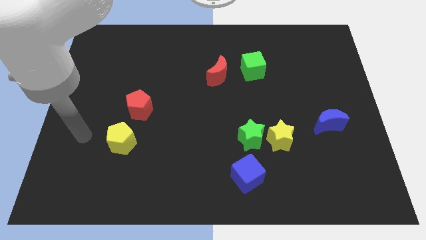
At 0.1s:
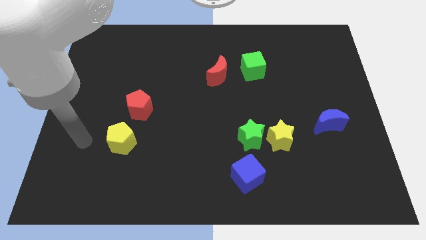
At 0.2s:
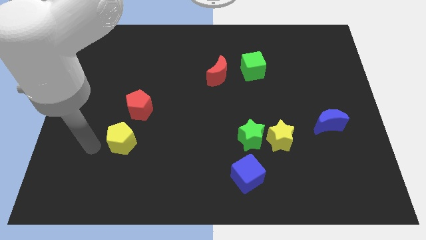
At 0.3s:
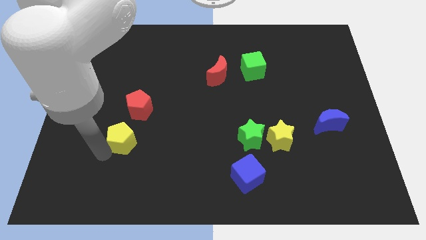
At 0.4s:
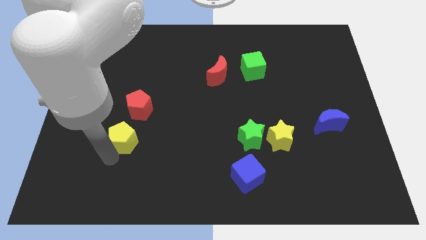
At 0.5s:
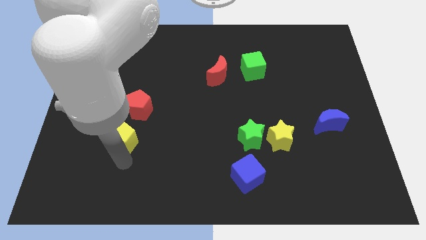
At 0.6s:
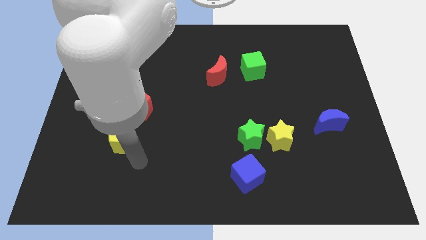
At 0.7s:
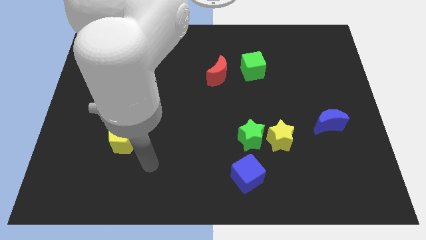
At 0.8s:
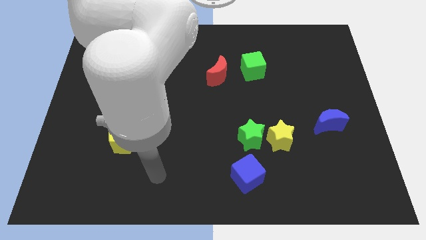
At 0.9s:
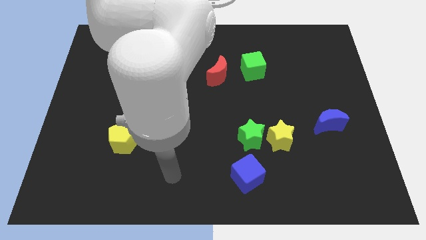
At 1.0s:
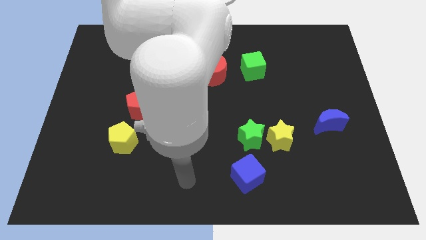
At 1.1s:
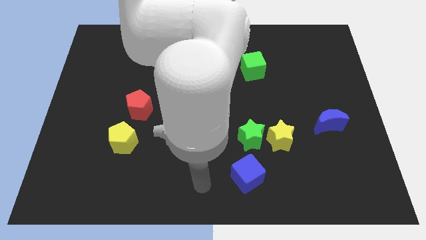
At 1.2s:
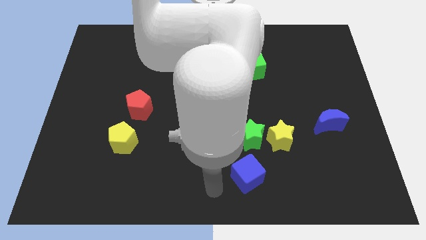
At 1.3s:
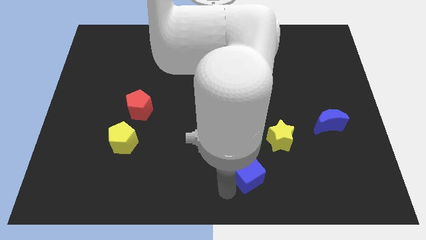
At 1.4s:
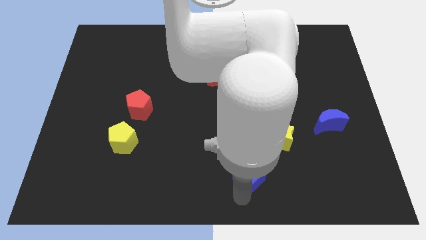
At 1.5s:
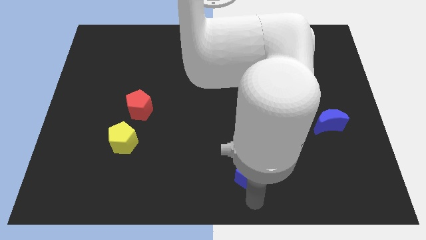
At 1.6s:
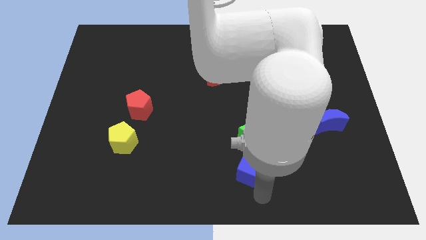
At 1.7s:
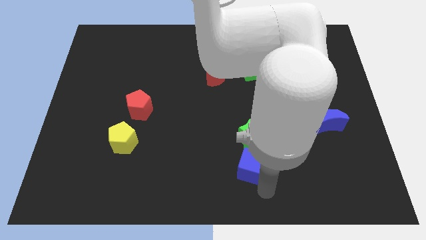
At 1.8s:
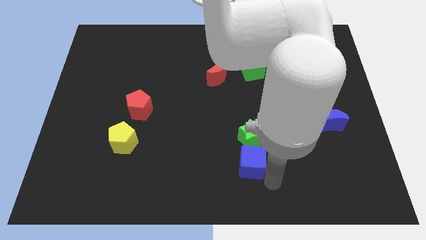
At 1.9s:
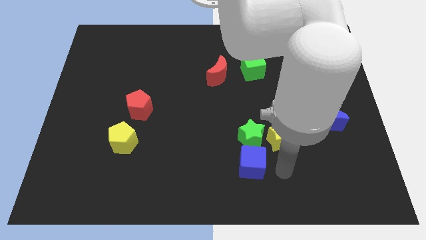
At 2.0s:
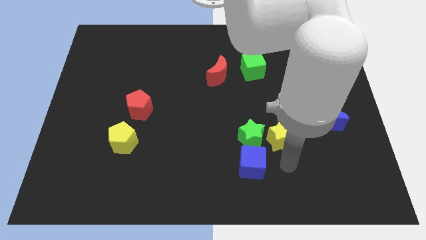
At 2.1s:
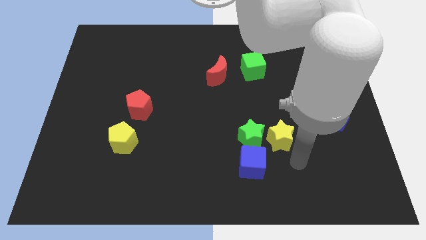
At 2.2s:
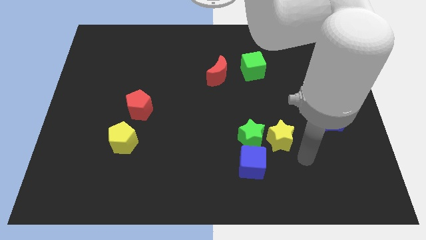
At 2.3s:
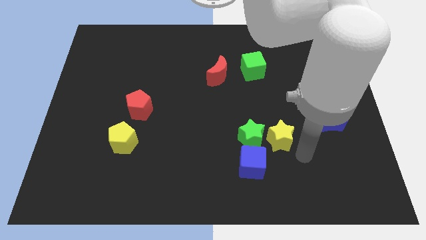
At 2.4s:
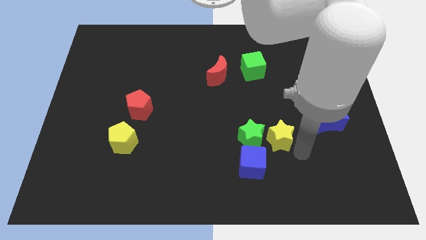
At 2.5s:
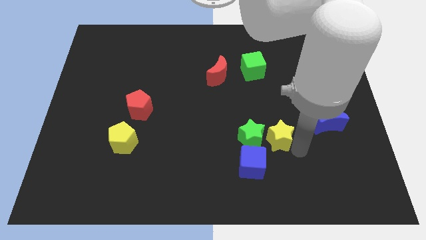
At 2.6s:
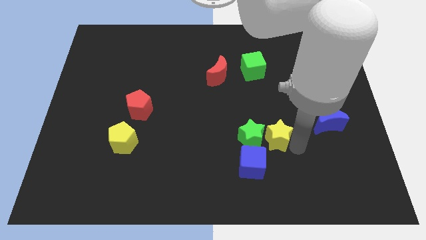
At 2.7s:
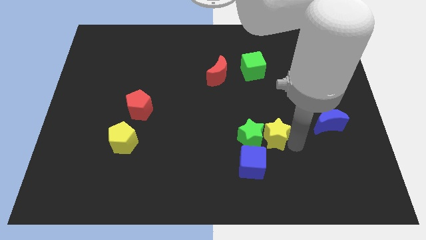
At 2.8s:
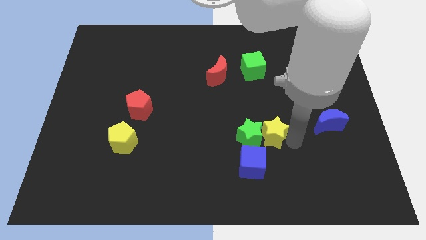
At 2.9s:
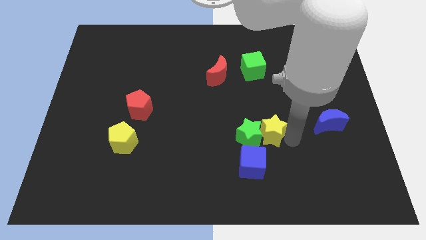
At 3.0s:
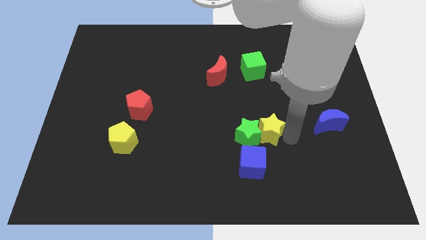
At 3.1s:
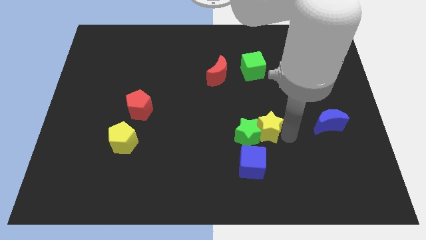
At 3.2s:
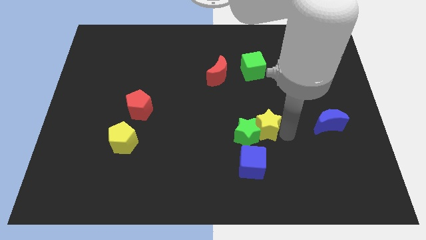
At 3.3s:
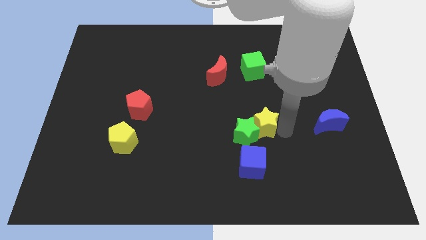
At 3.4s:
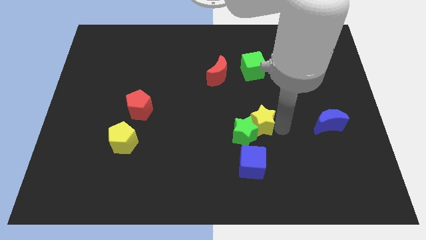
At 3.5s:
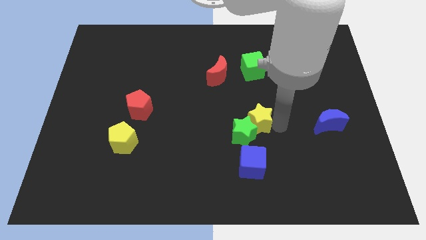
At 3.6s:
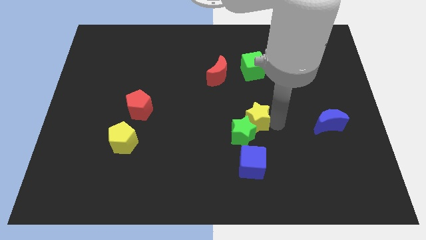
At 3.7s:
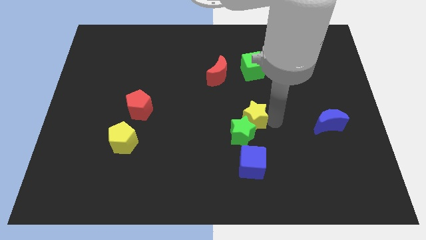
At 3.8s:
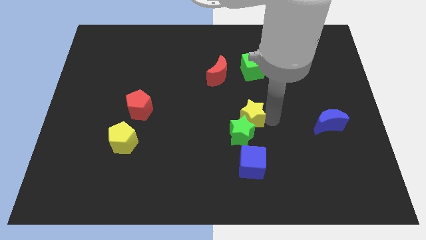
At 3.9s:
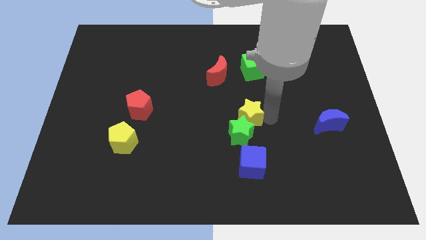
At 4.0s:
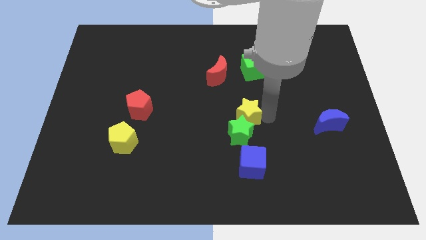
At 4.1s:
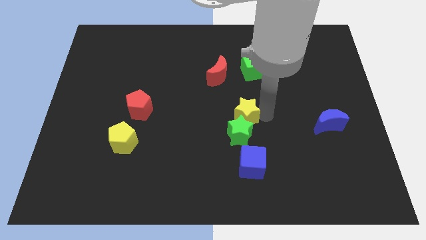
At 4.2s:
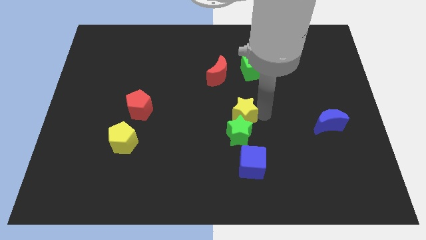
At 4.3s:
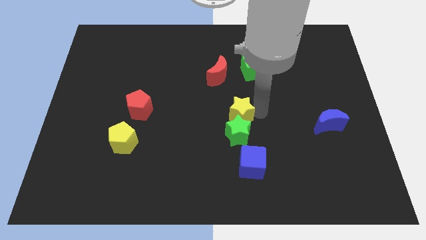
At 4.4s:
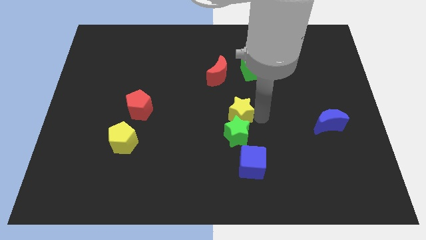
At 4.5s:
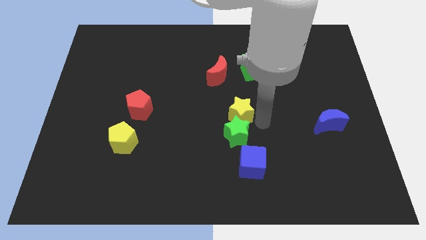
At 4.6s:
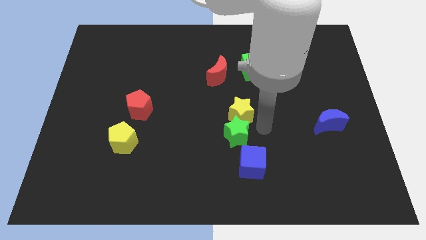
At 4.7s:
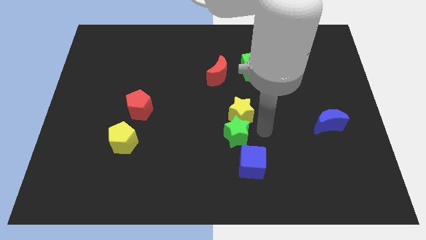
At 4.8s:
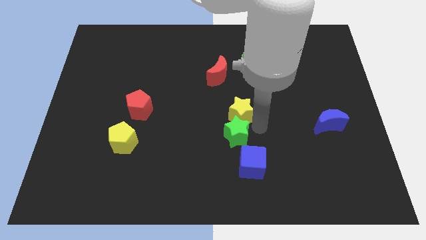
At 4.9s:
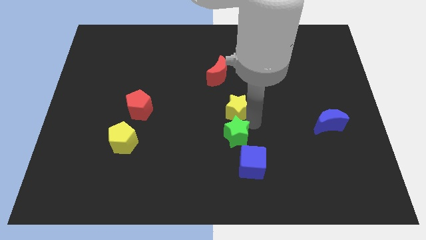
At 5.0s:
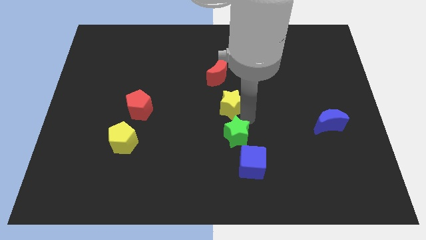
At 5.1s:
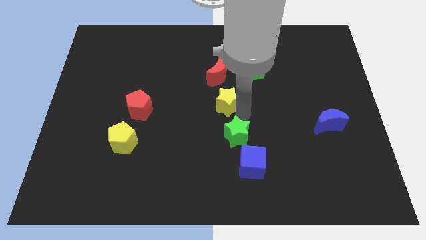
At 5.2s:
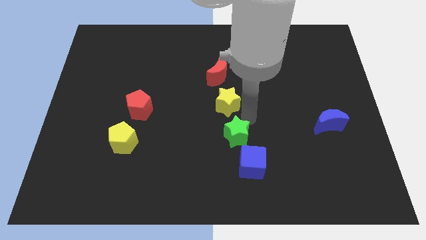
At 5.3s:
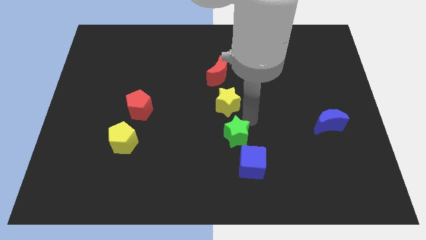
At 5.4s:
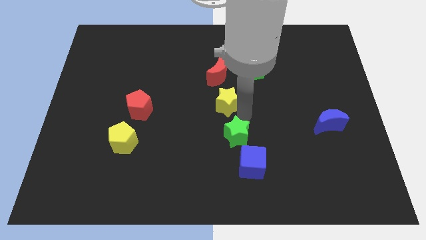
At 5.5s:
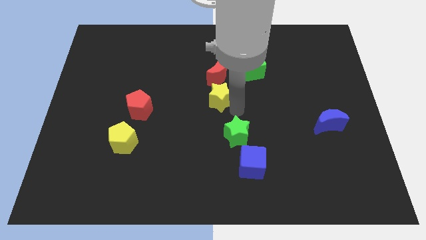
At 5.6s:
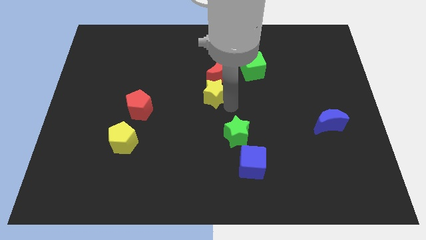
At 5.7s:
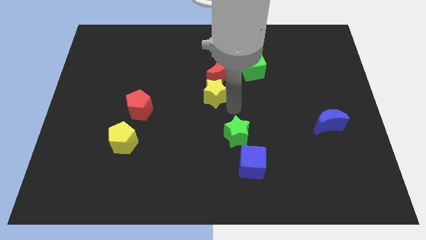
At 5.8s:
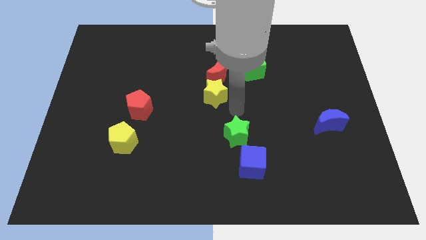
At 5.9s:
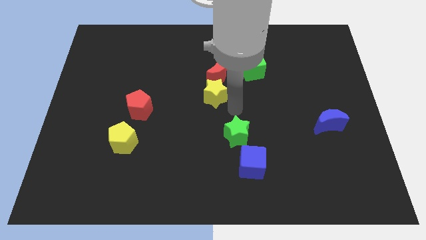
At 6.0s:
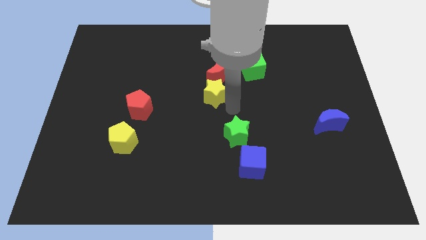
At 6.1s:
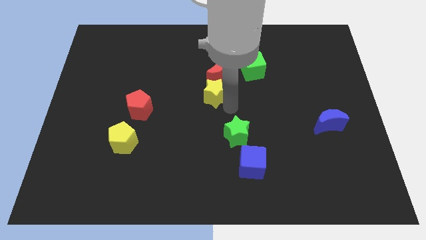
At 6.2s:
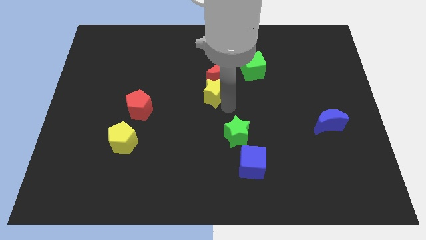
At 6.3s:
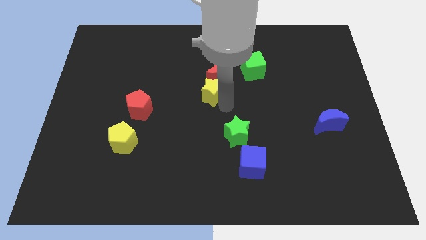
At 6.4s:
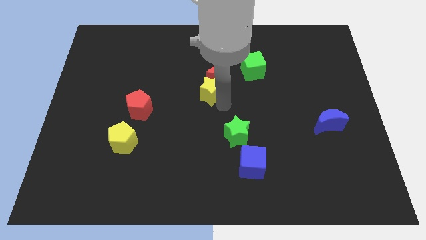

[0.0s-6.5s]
slide the yellow star upwards and to the left diagonally

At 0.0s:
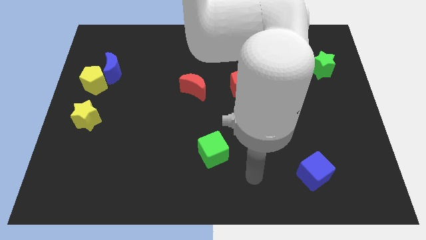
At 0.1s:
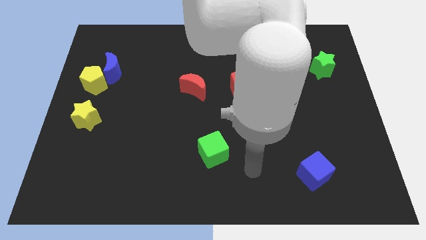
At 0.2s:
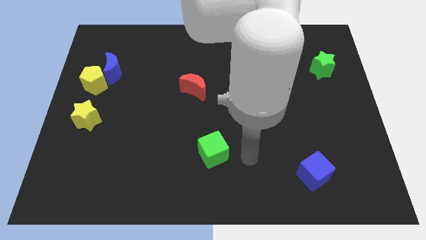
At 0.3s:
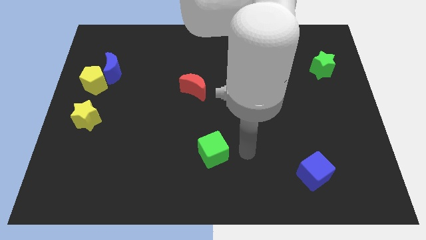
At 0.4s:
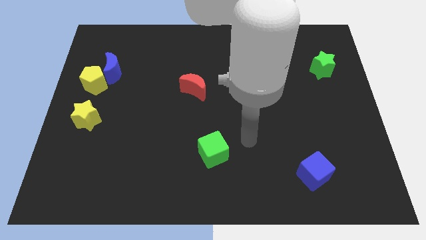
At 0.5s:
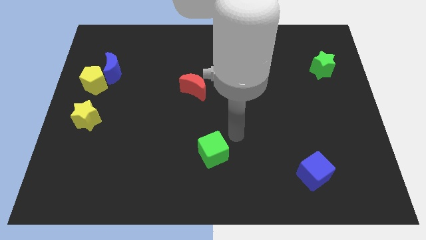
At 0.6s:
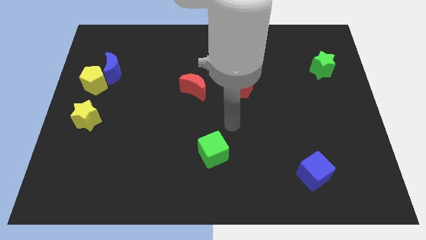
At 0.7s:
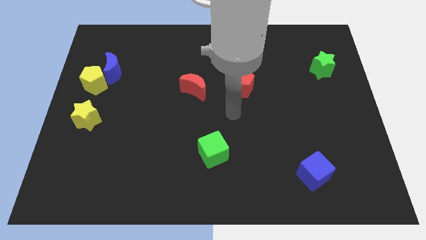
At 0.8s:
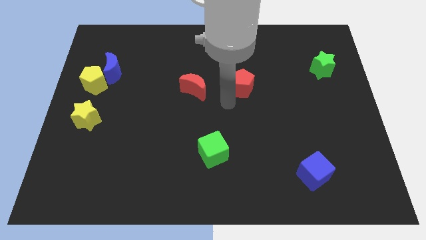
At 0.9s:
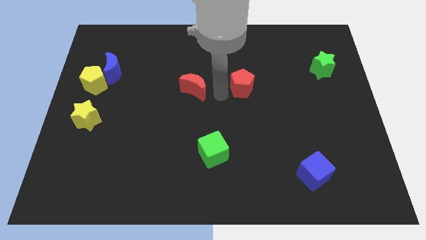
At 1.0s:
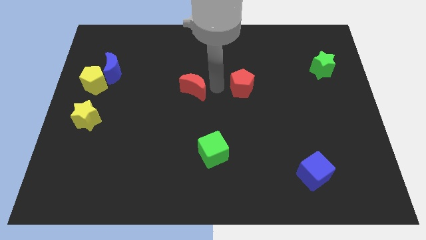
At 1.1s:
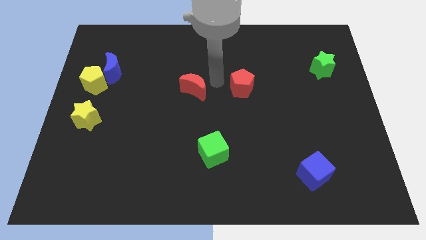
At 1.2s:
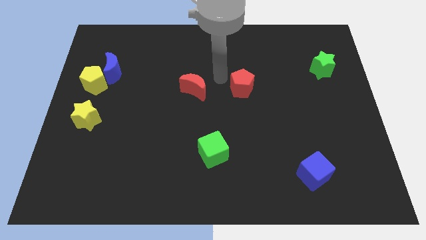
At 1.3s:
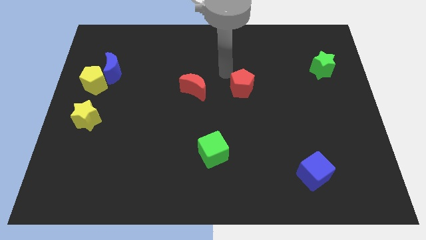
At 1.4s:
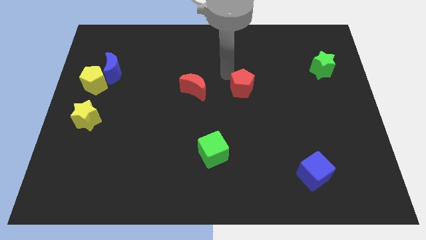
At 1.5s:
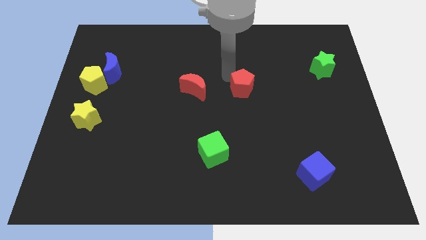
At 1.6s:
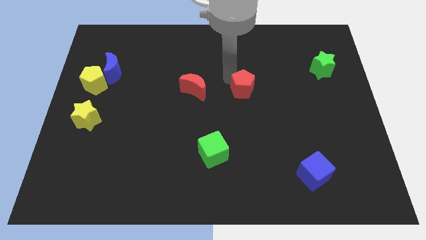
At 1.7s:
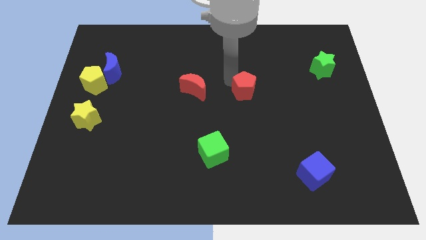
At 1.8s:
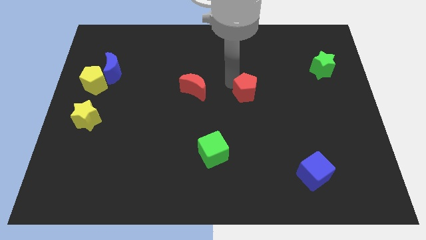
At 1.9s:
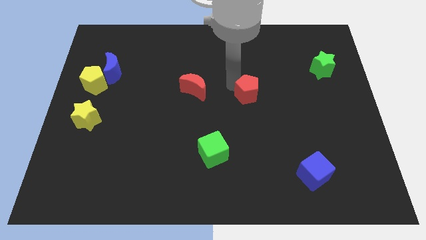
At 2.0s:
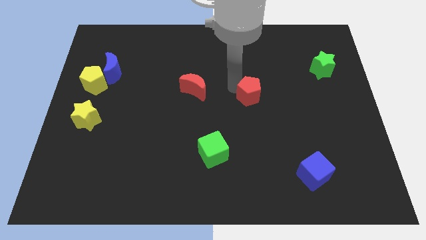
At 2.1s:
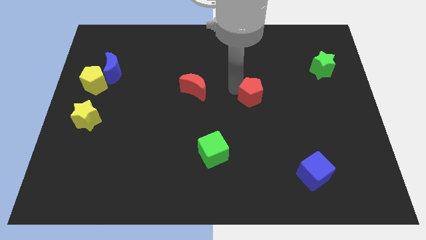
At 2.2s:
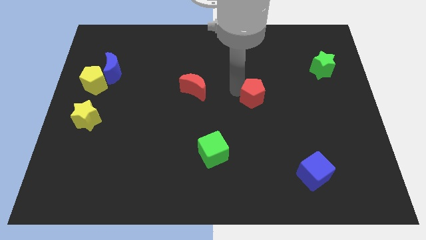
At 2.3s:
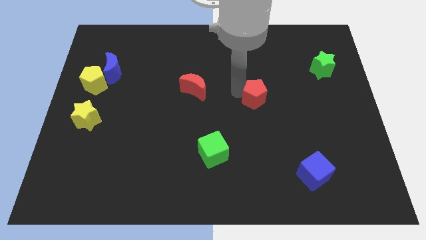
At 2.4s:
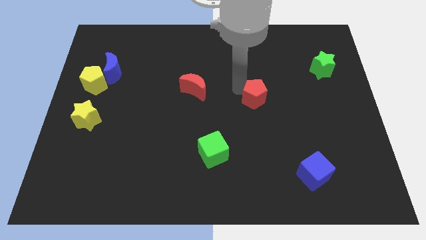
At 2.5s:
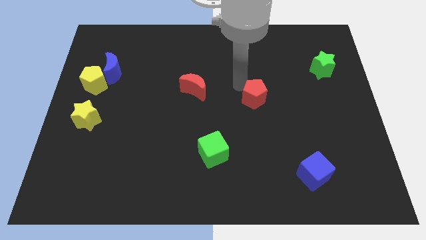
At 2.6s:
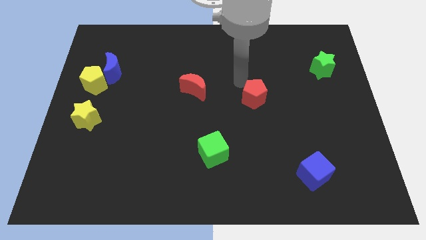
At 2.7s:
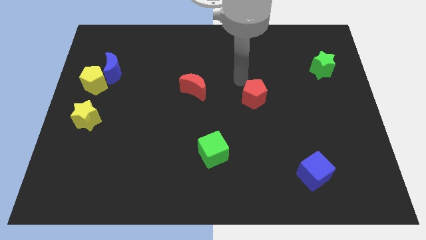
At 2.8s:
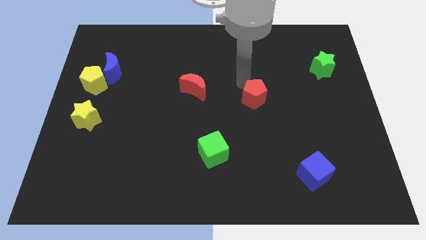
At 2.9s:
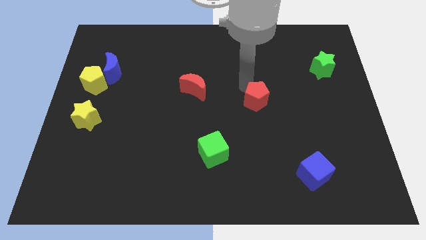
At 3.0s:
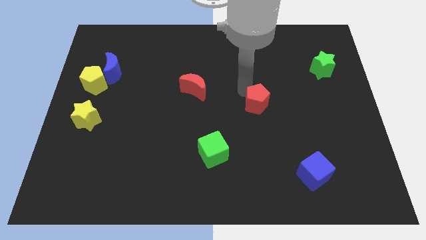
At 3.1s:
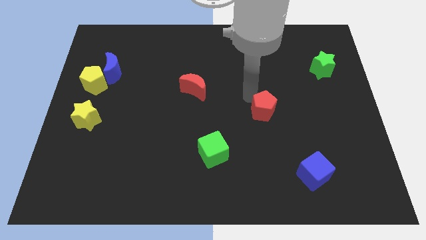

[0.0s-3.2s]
move the red pentagon slightly down and then to the right
